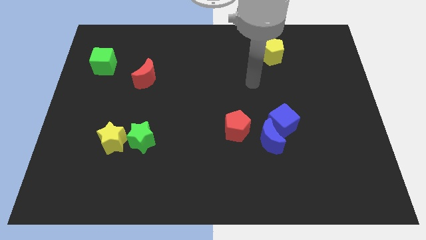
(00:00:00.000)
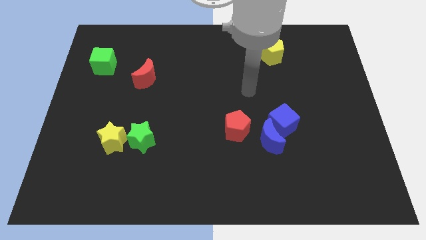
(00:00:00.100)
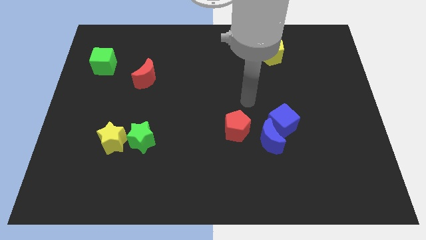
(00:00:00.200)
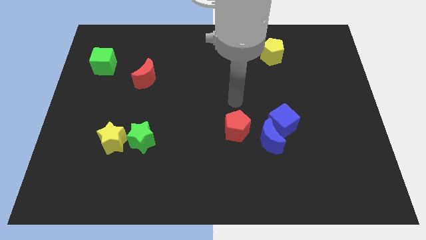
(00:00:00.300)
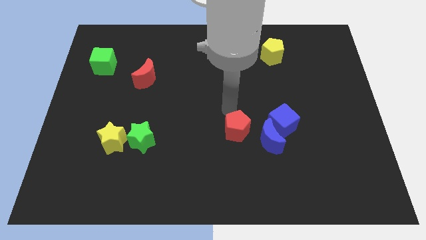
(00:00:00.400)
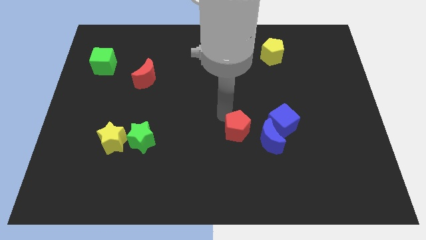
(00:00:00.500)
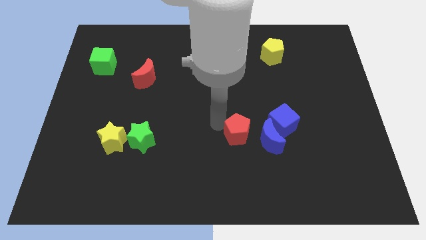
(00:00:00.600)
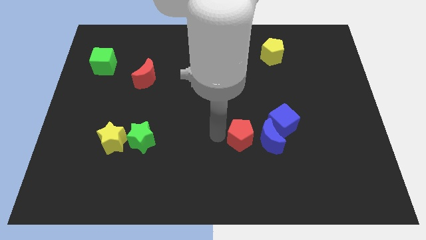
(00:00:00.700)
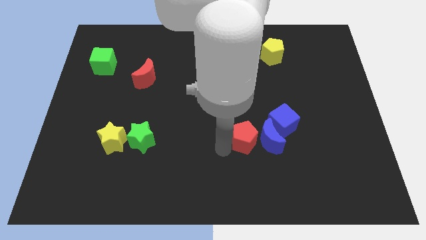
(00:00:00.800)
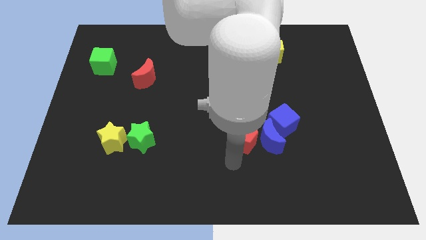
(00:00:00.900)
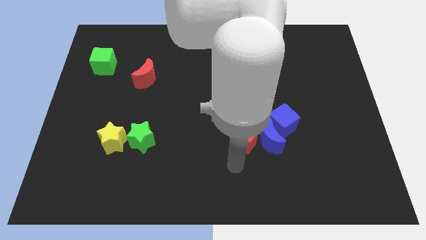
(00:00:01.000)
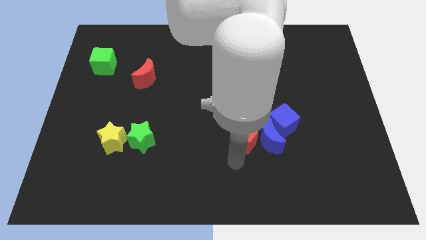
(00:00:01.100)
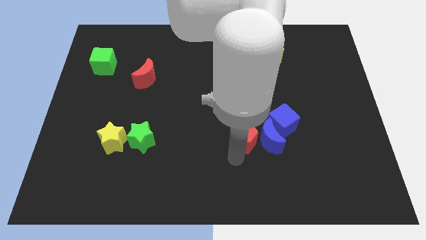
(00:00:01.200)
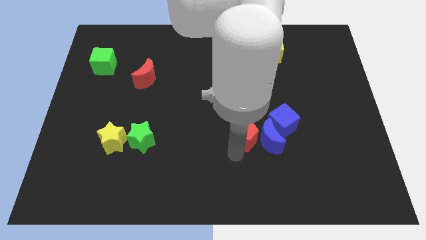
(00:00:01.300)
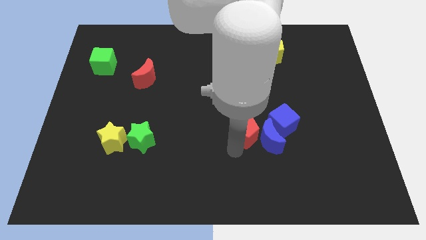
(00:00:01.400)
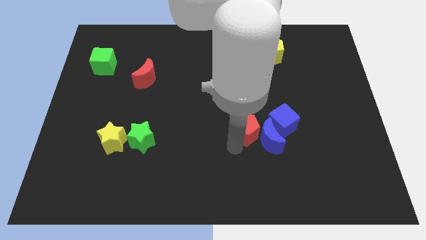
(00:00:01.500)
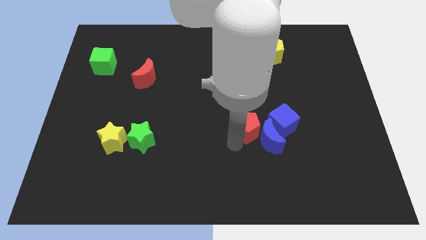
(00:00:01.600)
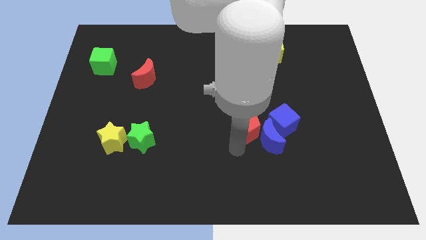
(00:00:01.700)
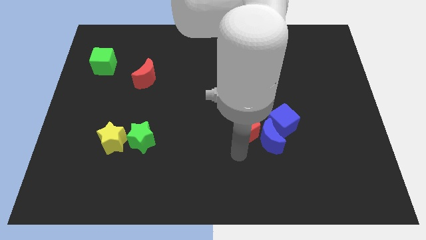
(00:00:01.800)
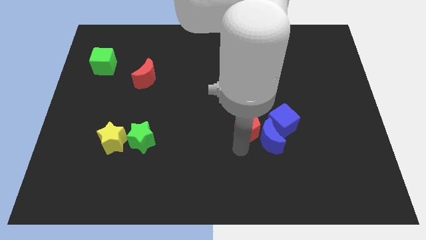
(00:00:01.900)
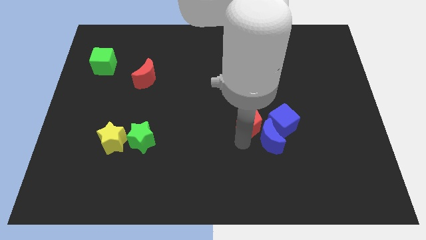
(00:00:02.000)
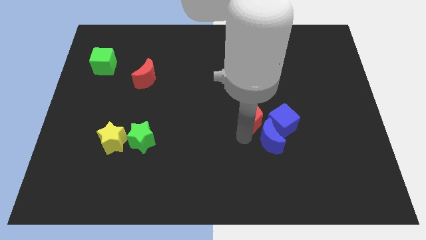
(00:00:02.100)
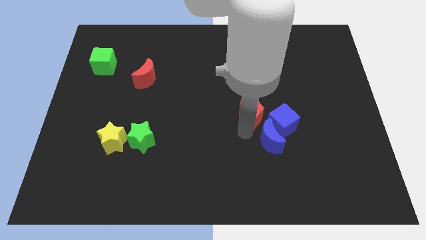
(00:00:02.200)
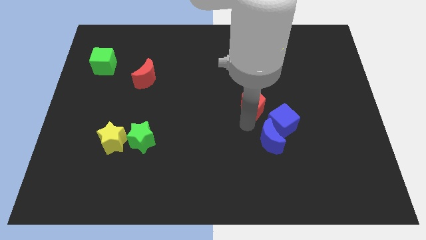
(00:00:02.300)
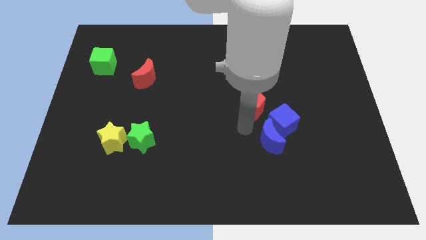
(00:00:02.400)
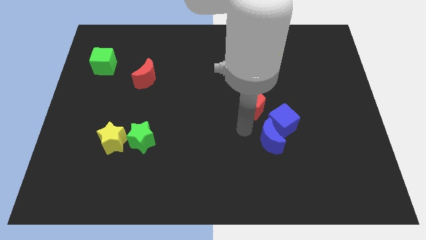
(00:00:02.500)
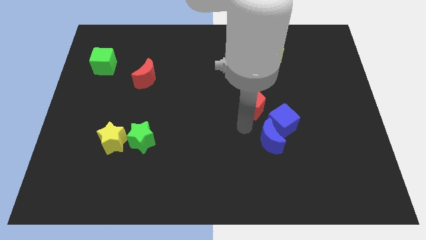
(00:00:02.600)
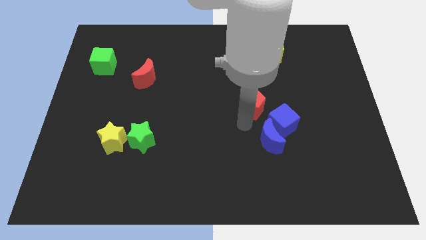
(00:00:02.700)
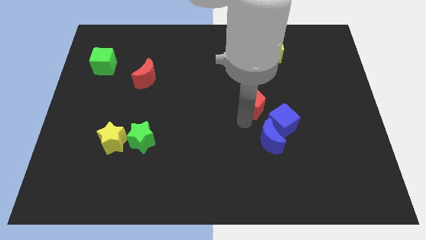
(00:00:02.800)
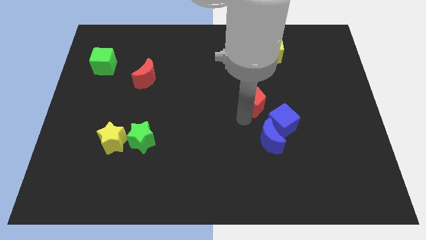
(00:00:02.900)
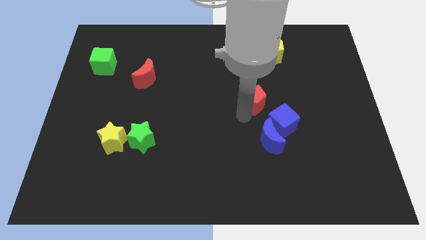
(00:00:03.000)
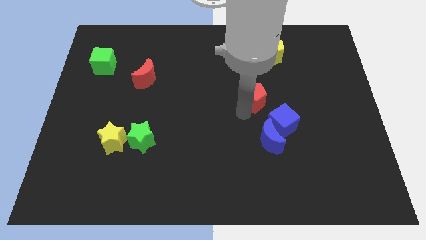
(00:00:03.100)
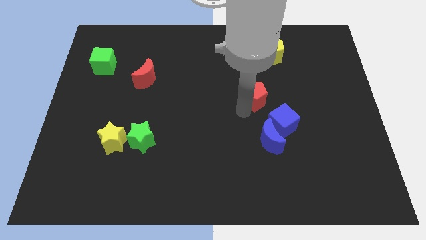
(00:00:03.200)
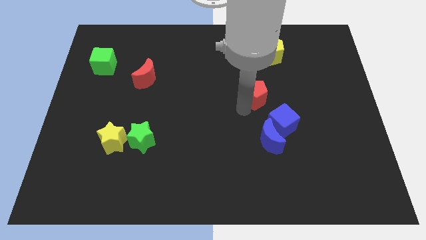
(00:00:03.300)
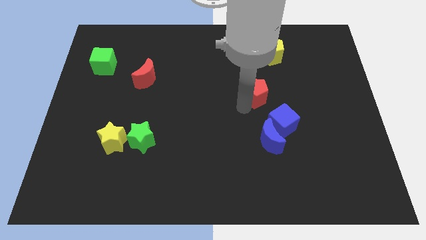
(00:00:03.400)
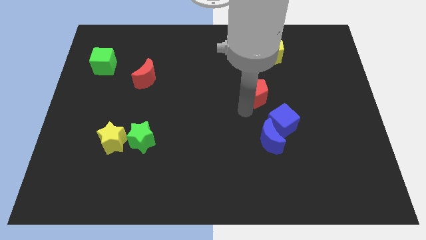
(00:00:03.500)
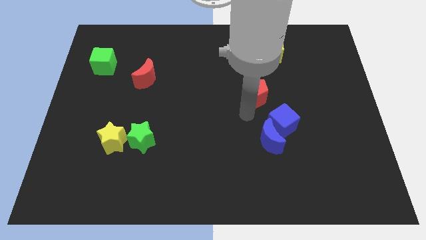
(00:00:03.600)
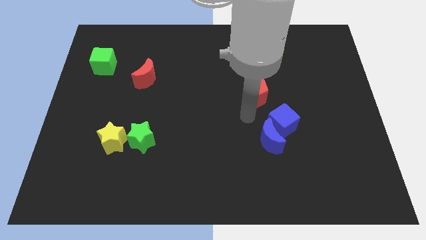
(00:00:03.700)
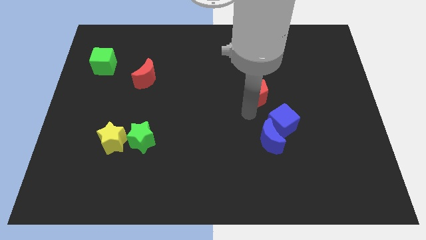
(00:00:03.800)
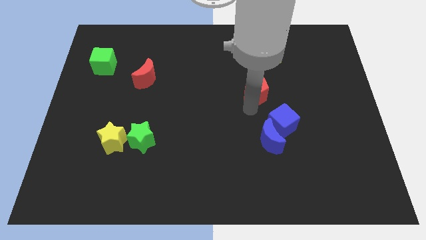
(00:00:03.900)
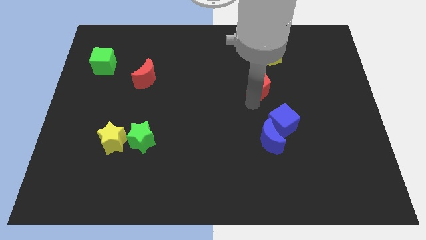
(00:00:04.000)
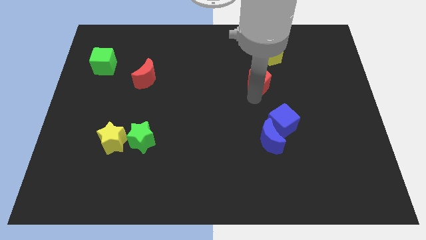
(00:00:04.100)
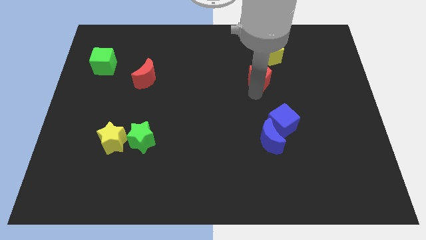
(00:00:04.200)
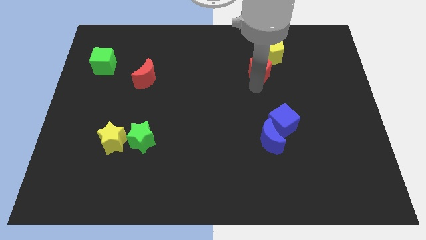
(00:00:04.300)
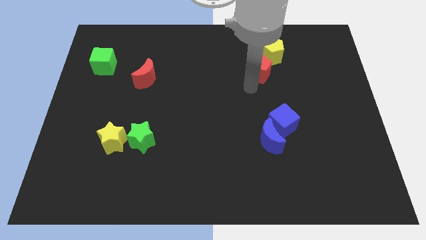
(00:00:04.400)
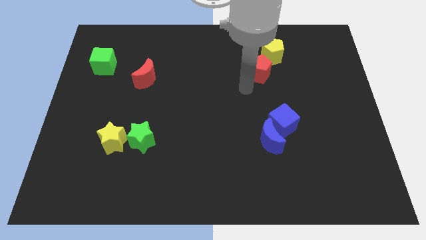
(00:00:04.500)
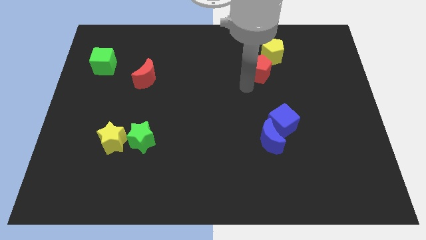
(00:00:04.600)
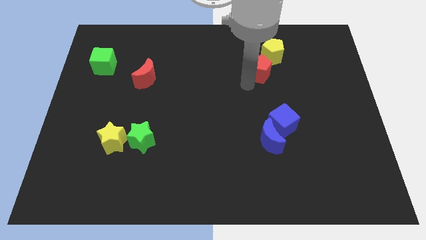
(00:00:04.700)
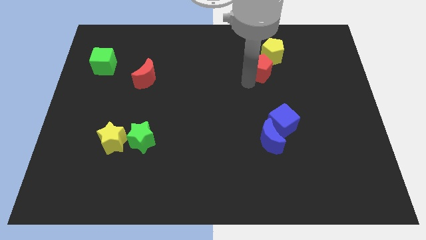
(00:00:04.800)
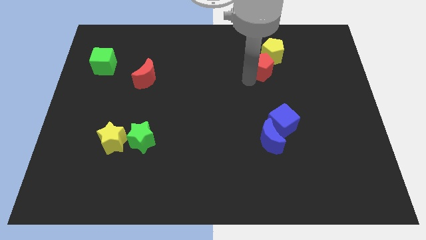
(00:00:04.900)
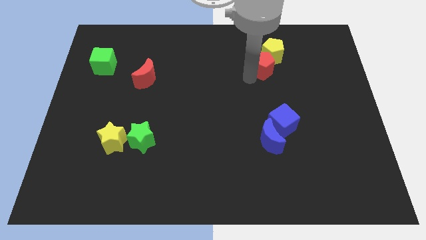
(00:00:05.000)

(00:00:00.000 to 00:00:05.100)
push the red pentagon to the yellow pentagon

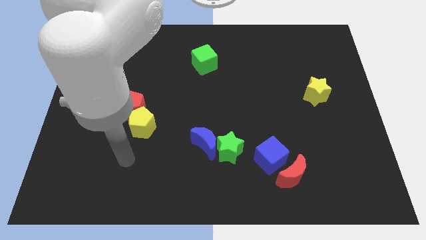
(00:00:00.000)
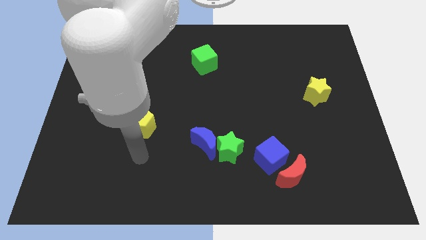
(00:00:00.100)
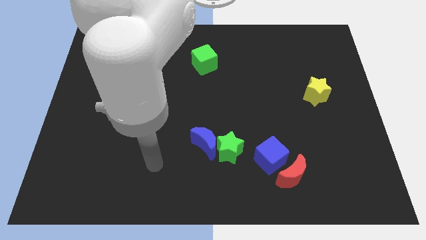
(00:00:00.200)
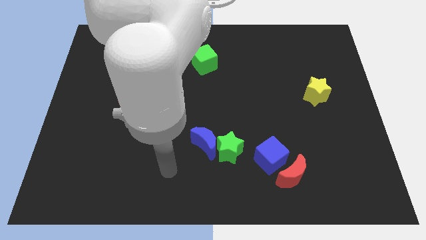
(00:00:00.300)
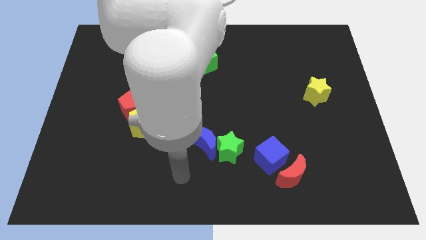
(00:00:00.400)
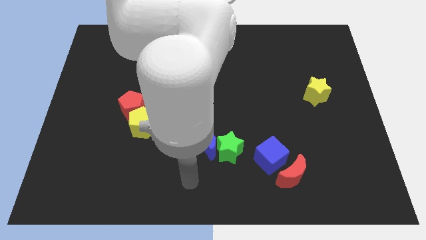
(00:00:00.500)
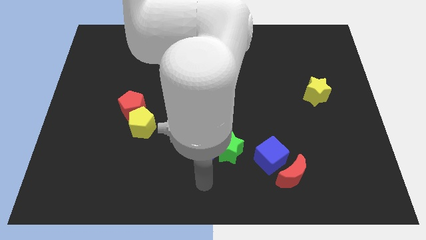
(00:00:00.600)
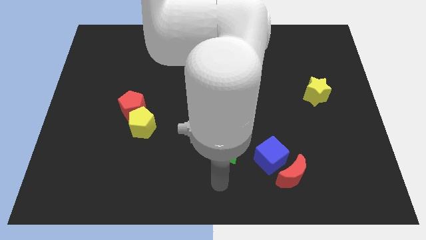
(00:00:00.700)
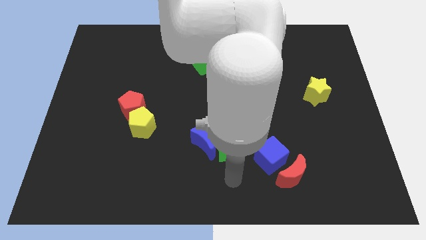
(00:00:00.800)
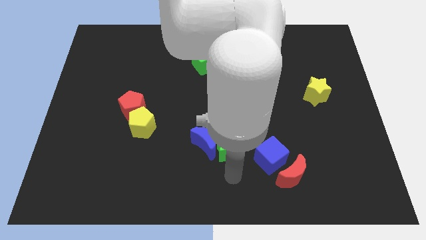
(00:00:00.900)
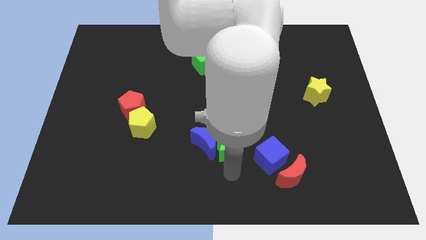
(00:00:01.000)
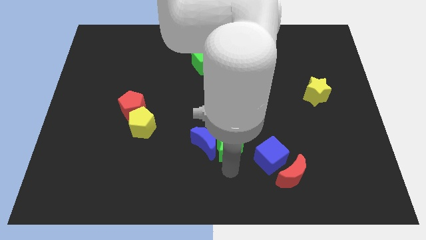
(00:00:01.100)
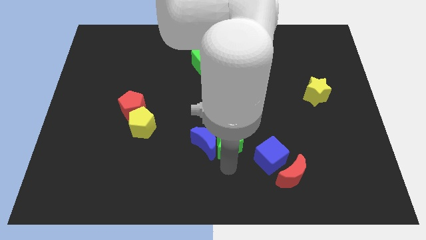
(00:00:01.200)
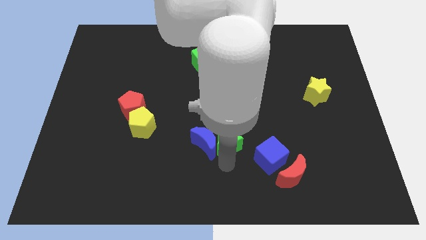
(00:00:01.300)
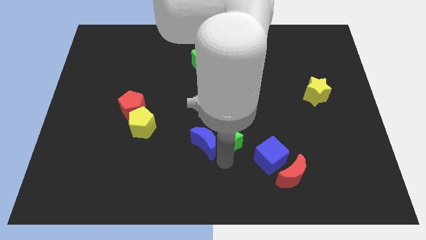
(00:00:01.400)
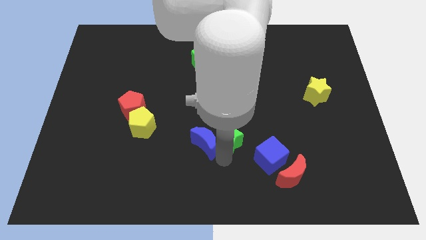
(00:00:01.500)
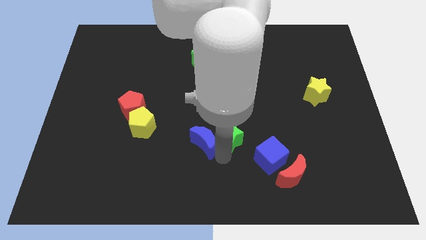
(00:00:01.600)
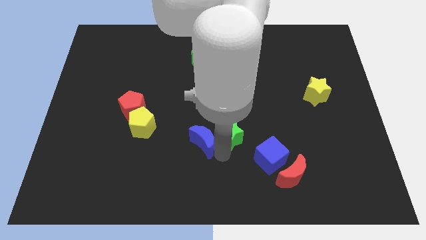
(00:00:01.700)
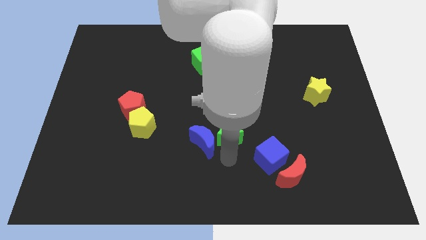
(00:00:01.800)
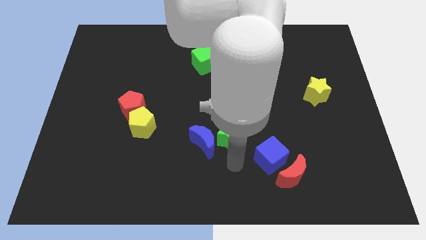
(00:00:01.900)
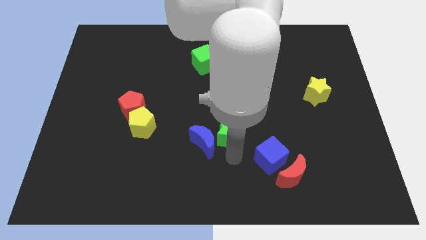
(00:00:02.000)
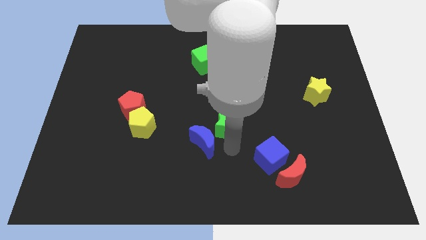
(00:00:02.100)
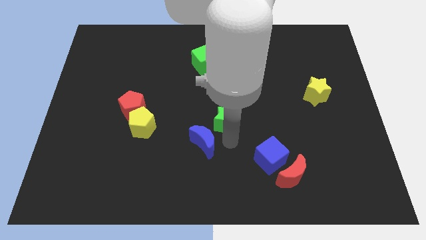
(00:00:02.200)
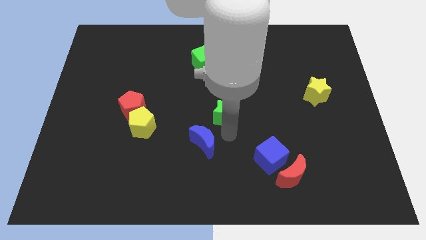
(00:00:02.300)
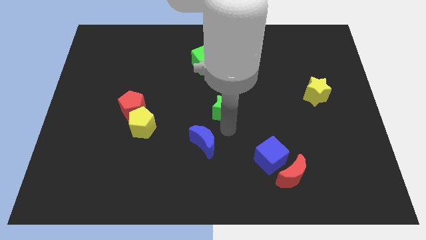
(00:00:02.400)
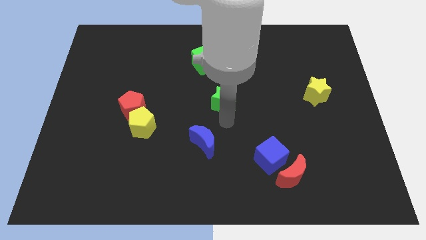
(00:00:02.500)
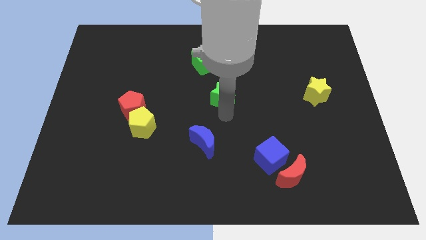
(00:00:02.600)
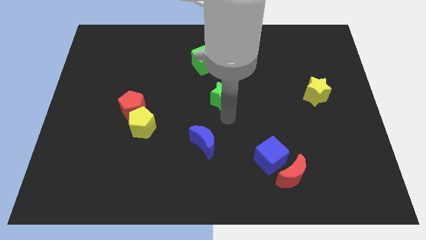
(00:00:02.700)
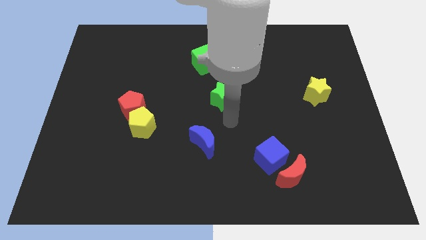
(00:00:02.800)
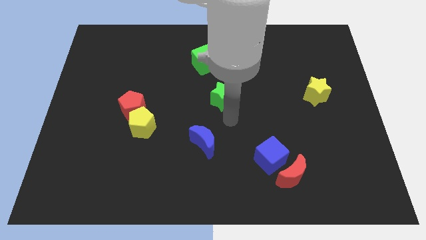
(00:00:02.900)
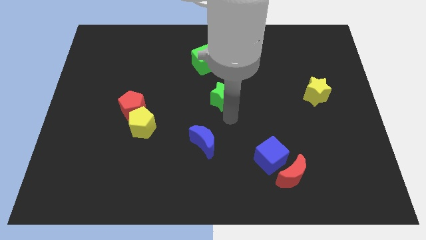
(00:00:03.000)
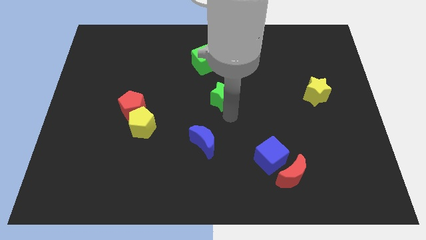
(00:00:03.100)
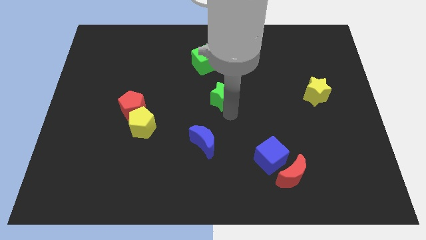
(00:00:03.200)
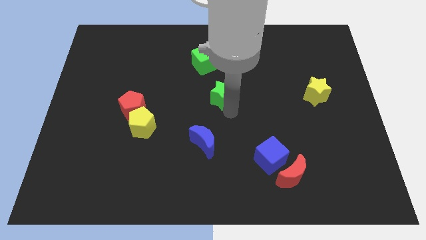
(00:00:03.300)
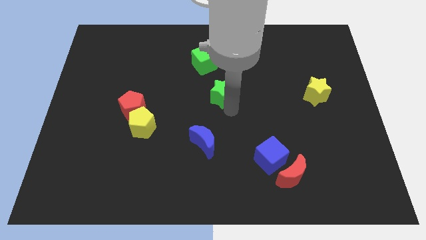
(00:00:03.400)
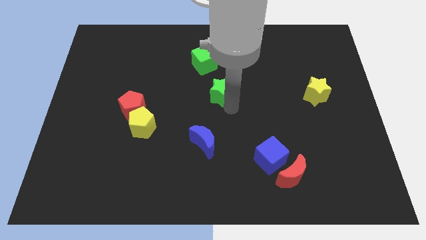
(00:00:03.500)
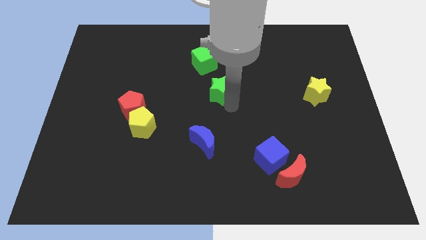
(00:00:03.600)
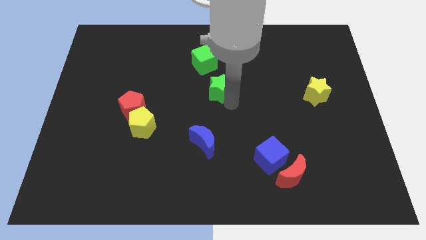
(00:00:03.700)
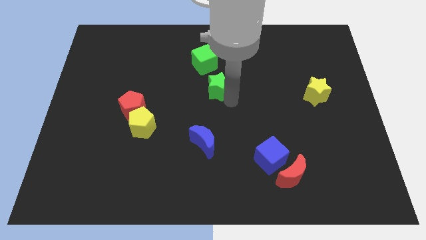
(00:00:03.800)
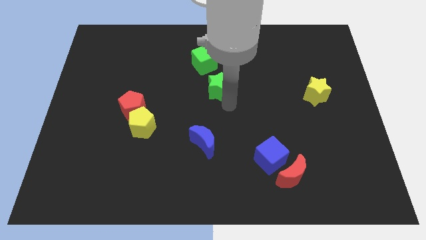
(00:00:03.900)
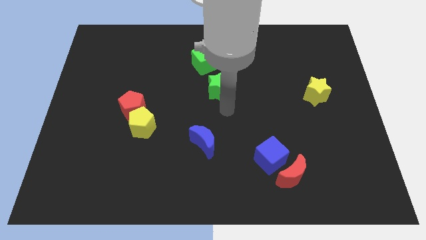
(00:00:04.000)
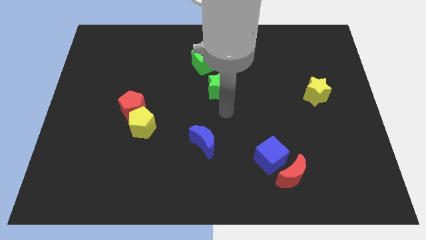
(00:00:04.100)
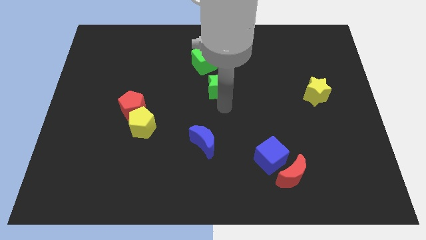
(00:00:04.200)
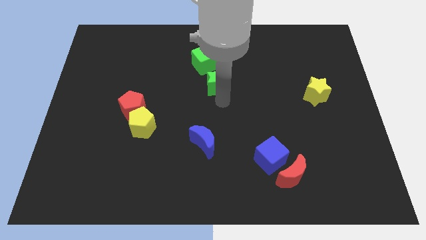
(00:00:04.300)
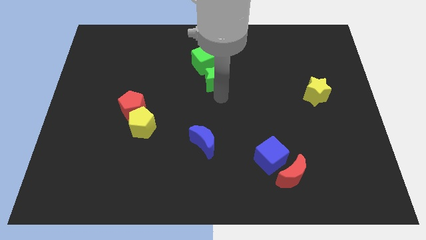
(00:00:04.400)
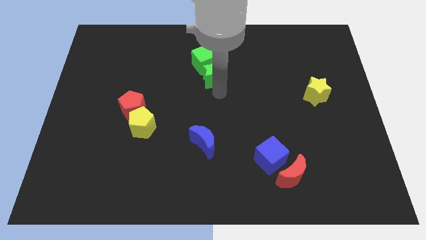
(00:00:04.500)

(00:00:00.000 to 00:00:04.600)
move the green star to the green cube
